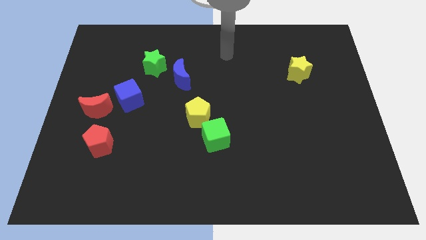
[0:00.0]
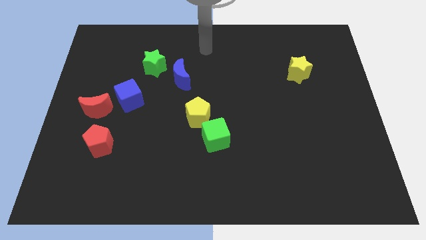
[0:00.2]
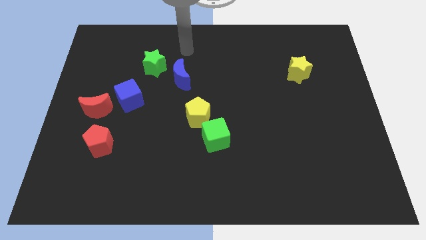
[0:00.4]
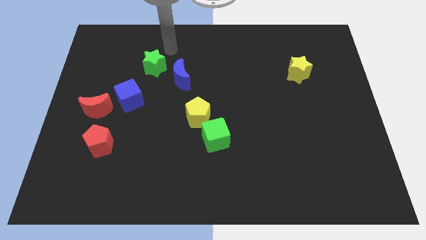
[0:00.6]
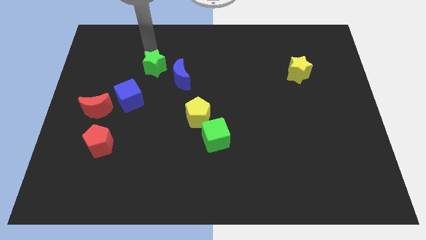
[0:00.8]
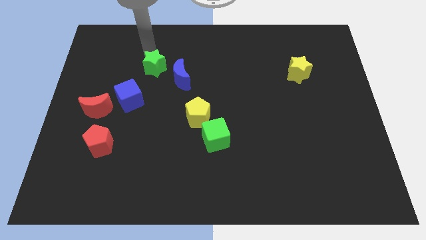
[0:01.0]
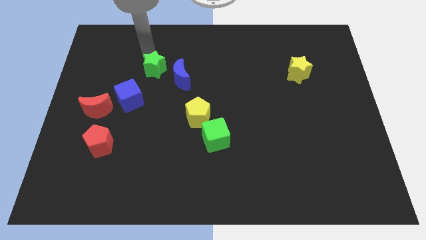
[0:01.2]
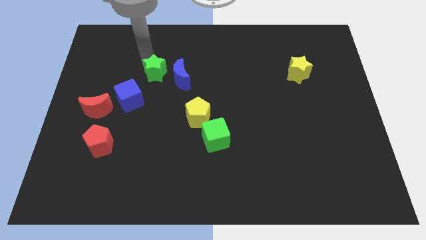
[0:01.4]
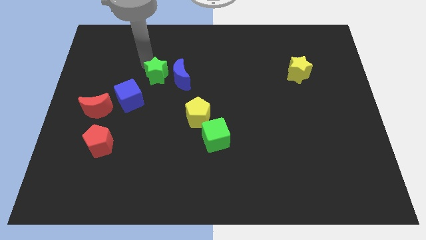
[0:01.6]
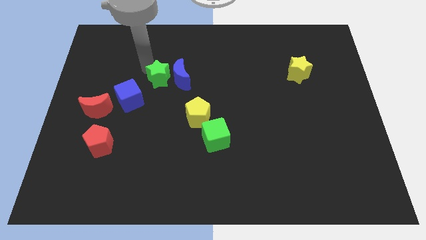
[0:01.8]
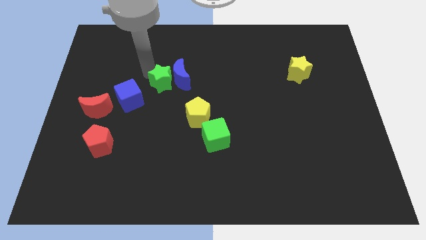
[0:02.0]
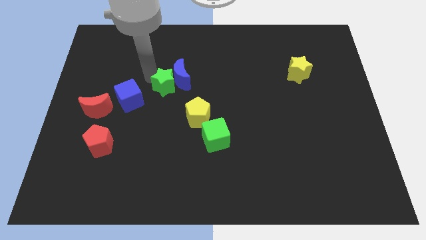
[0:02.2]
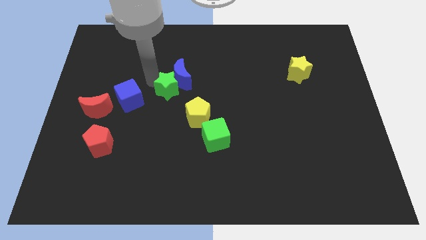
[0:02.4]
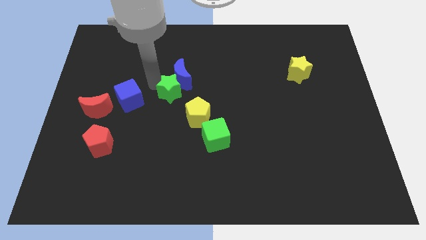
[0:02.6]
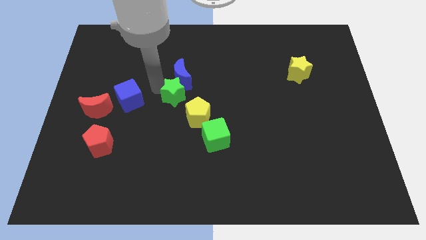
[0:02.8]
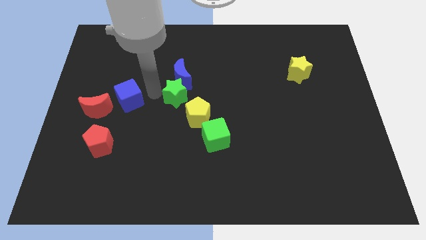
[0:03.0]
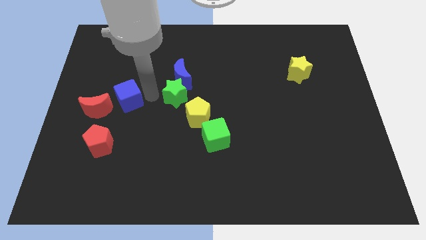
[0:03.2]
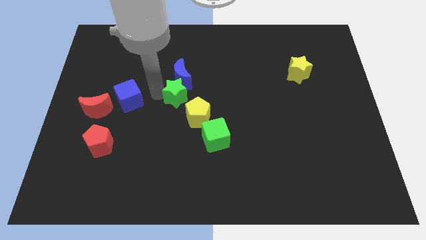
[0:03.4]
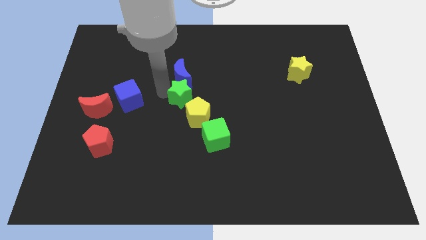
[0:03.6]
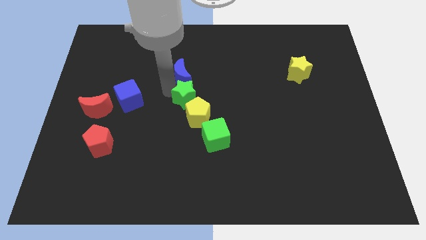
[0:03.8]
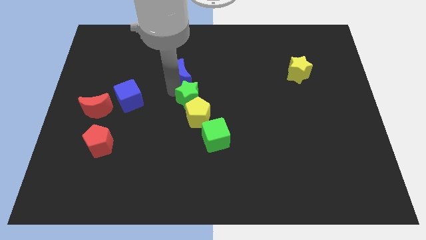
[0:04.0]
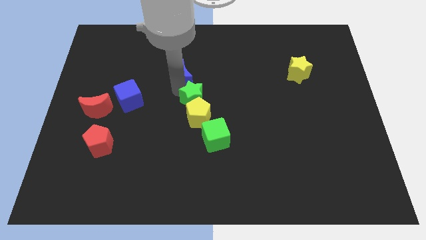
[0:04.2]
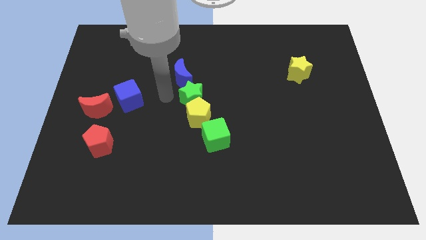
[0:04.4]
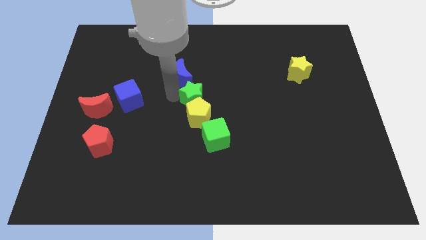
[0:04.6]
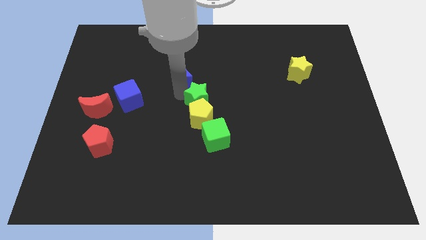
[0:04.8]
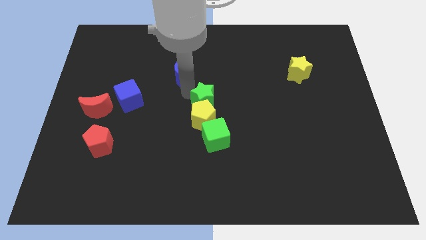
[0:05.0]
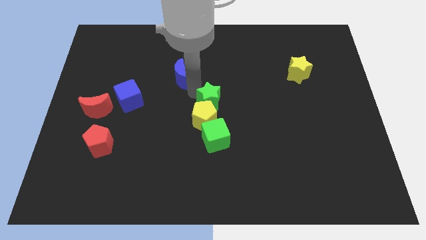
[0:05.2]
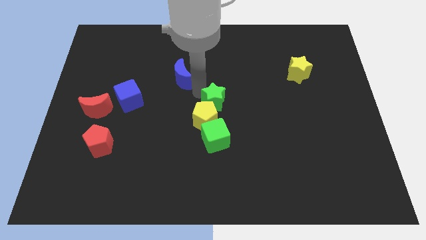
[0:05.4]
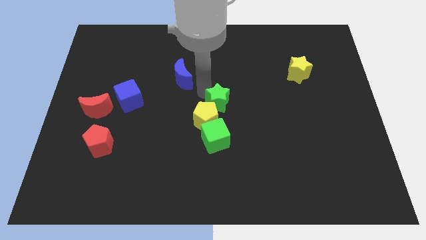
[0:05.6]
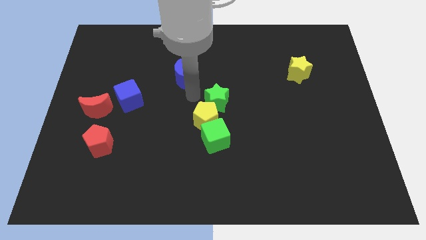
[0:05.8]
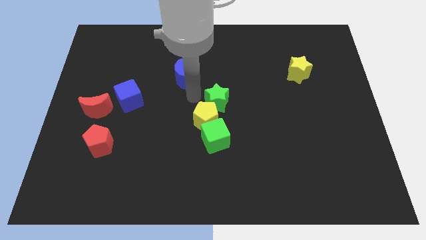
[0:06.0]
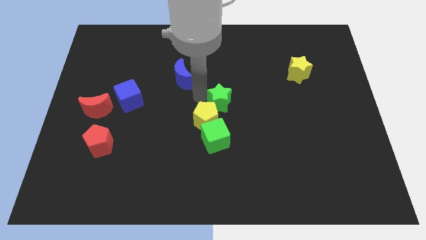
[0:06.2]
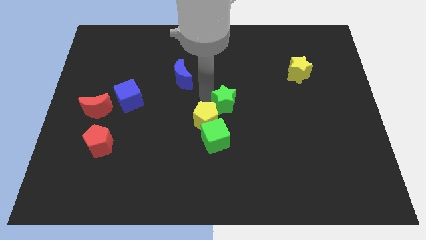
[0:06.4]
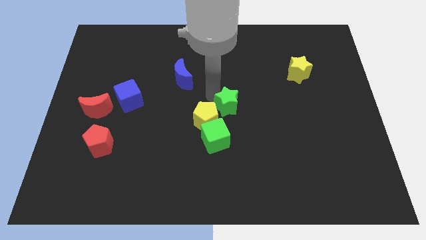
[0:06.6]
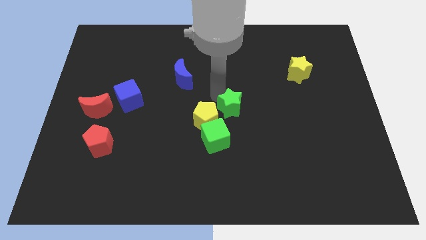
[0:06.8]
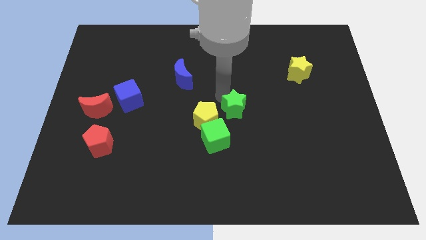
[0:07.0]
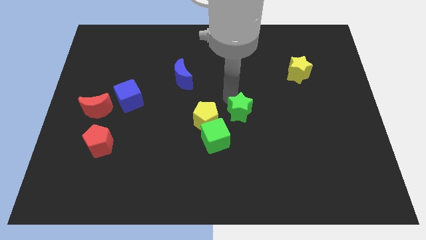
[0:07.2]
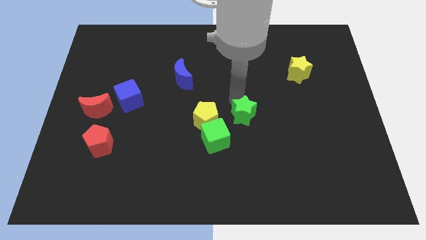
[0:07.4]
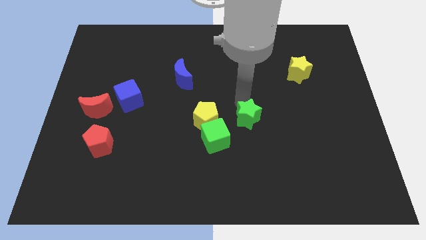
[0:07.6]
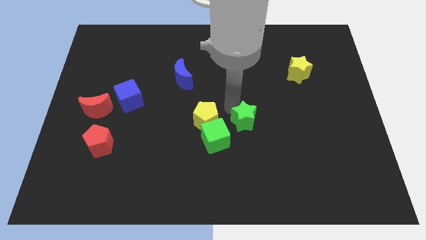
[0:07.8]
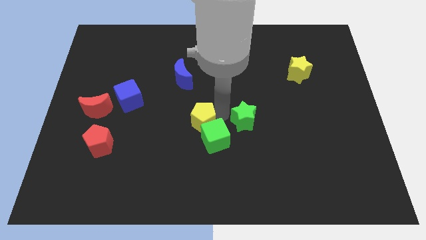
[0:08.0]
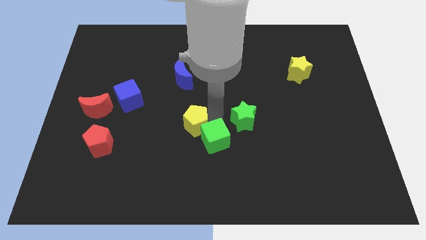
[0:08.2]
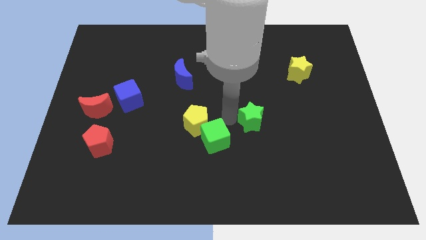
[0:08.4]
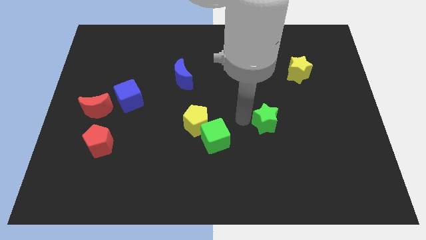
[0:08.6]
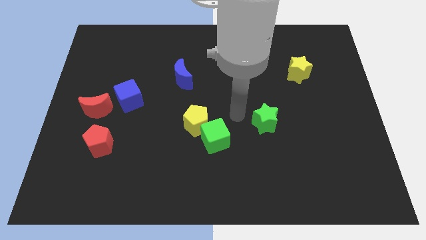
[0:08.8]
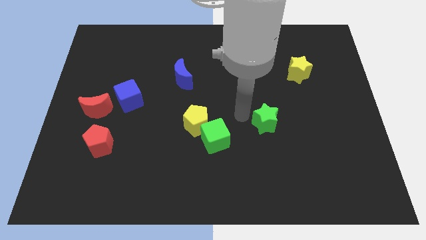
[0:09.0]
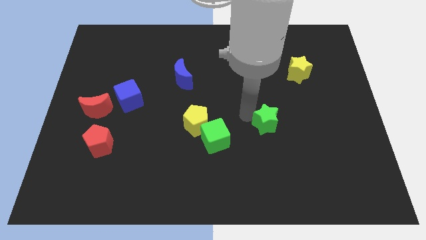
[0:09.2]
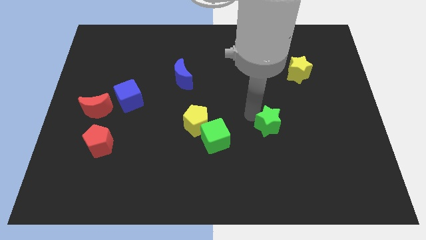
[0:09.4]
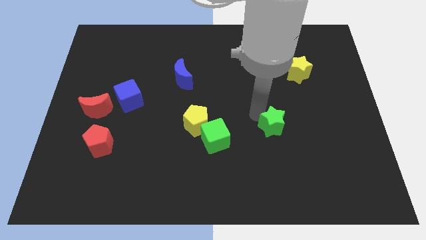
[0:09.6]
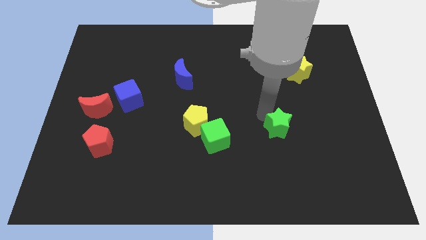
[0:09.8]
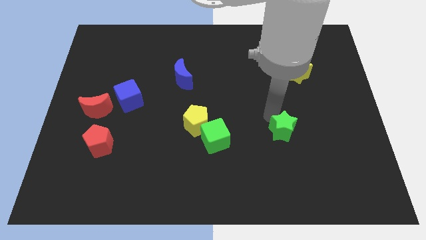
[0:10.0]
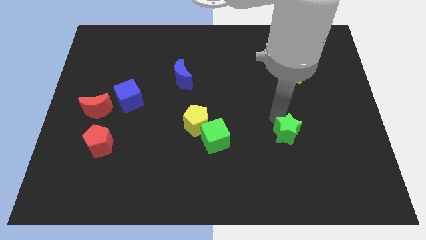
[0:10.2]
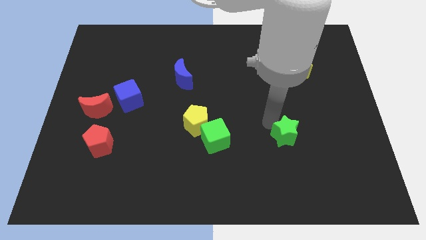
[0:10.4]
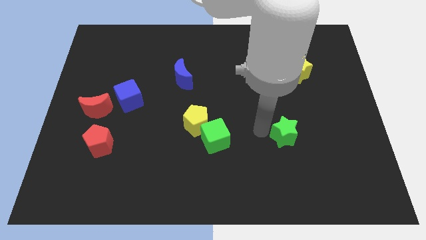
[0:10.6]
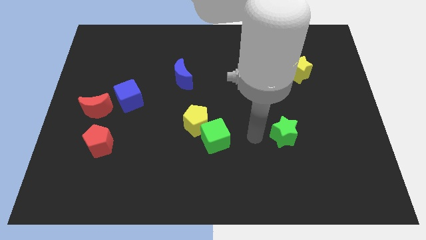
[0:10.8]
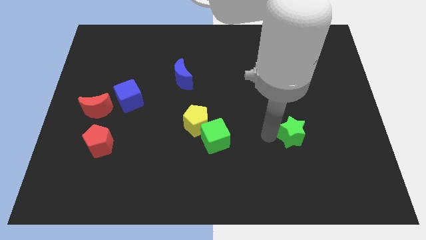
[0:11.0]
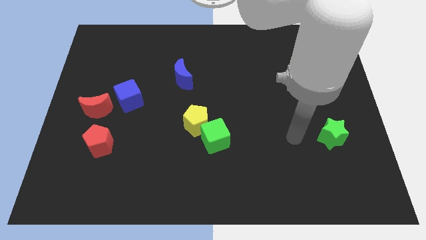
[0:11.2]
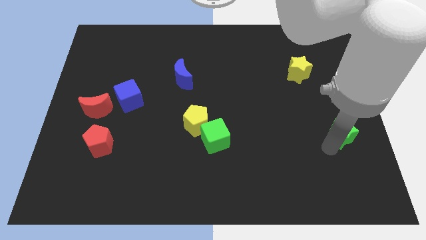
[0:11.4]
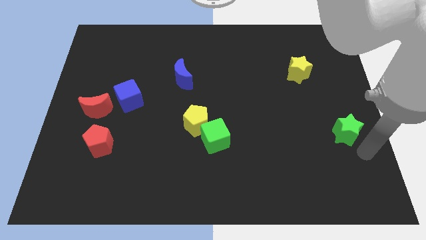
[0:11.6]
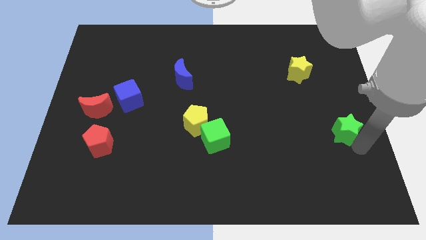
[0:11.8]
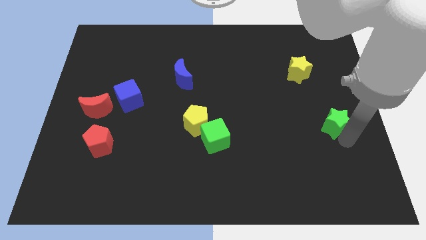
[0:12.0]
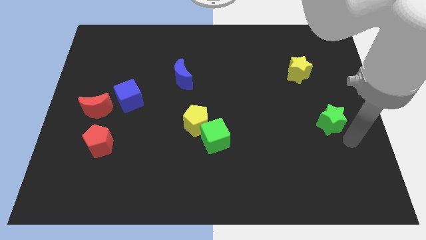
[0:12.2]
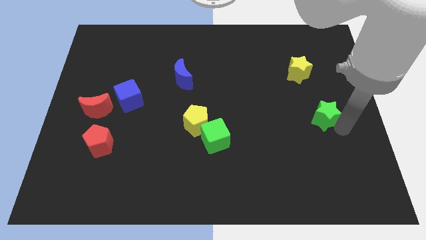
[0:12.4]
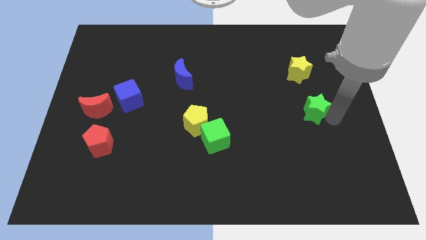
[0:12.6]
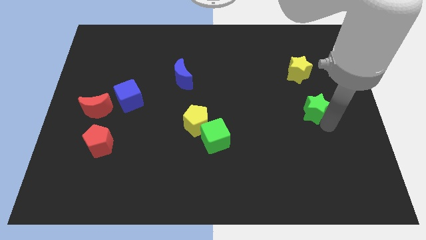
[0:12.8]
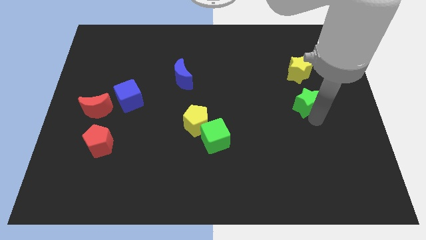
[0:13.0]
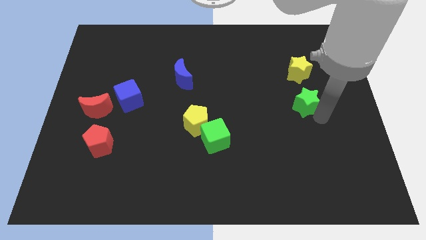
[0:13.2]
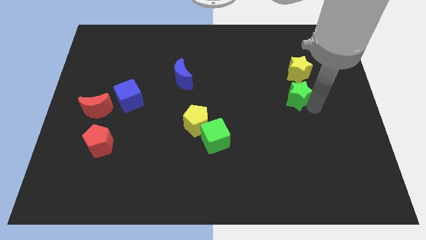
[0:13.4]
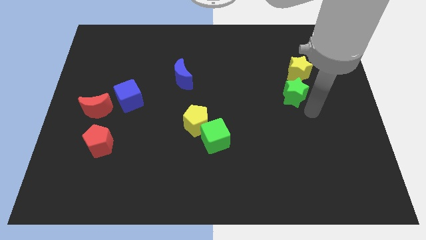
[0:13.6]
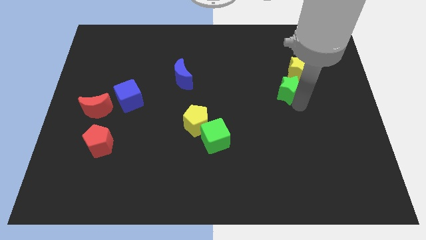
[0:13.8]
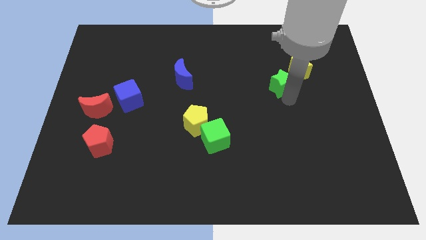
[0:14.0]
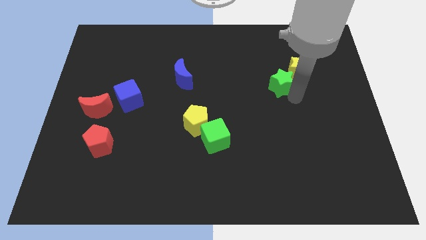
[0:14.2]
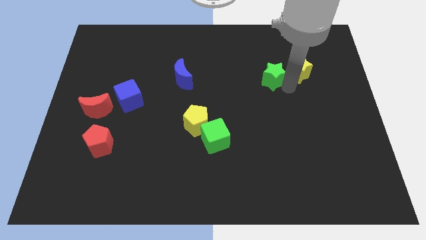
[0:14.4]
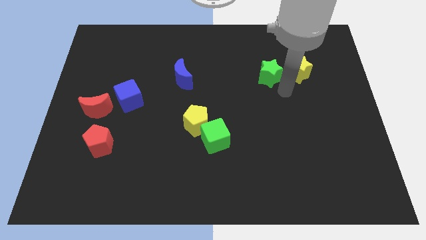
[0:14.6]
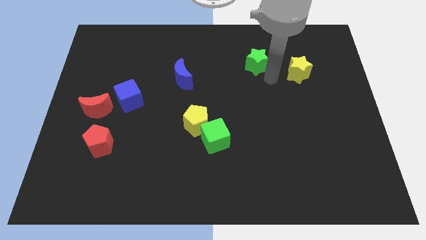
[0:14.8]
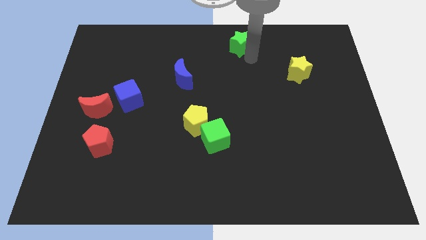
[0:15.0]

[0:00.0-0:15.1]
push the green star to the top
